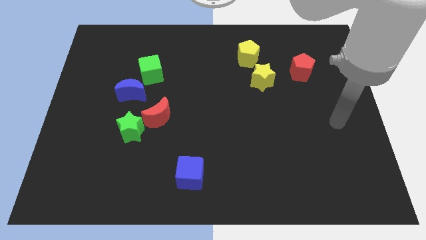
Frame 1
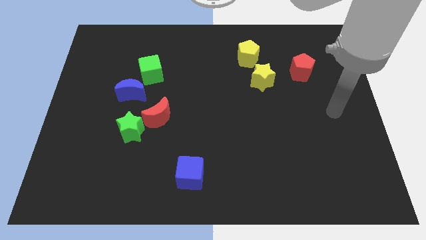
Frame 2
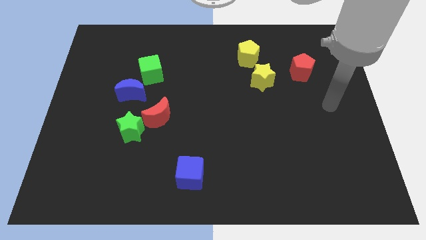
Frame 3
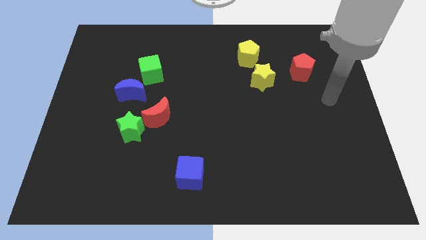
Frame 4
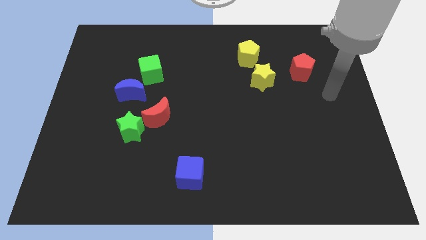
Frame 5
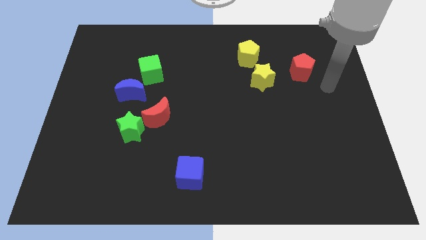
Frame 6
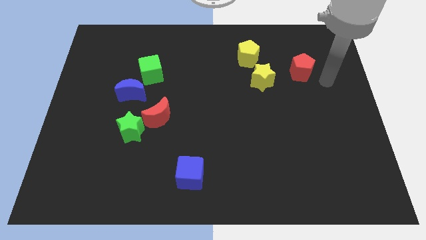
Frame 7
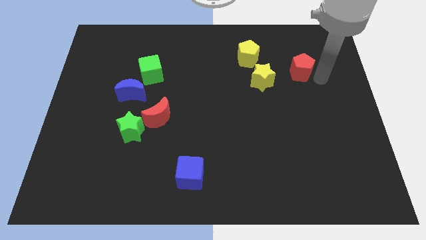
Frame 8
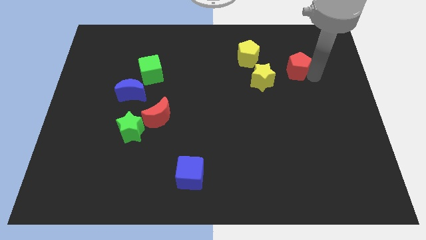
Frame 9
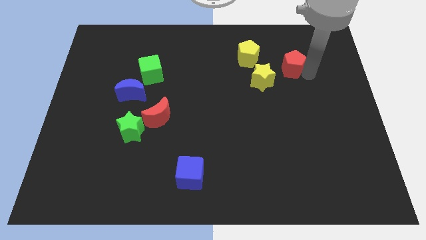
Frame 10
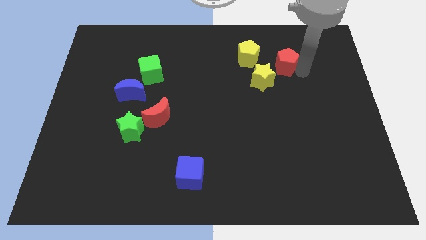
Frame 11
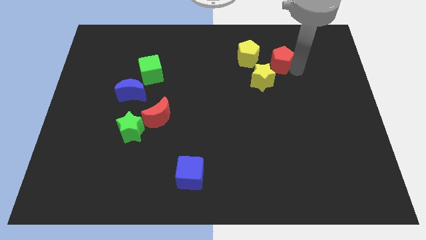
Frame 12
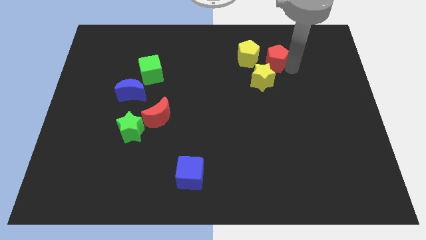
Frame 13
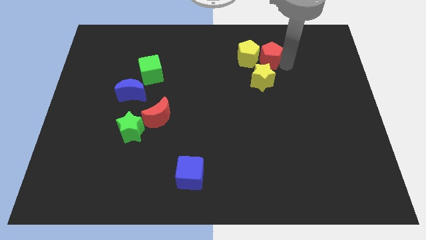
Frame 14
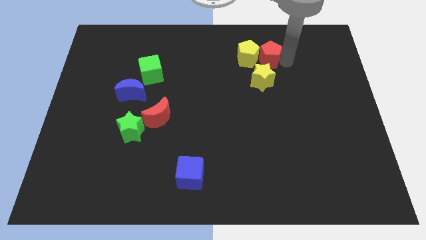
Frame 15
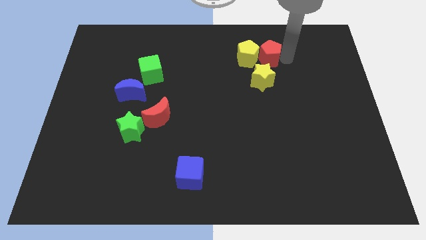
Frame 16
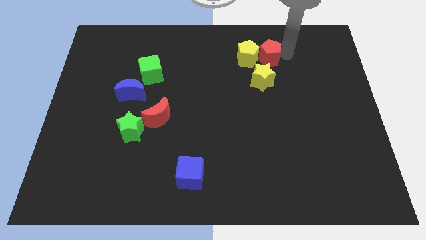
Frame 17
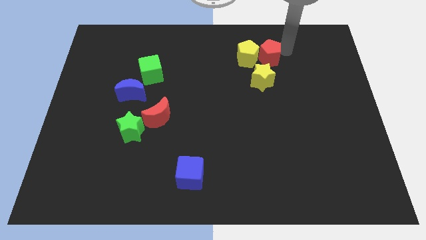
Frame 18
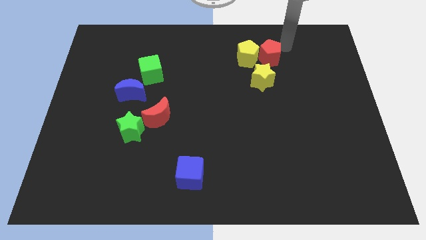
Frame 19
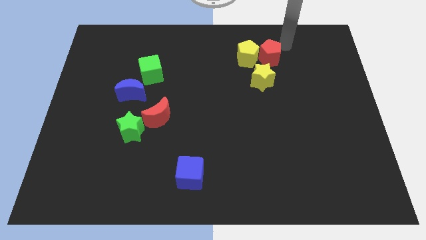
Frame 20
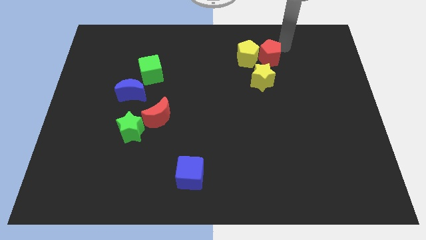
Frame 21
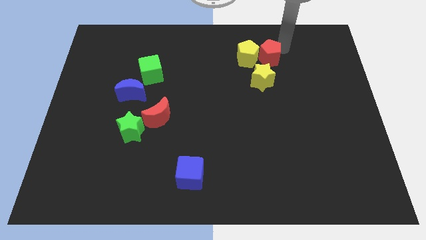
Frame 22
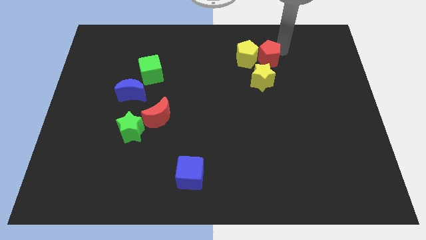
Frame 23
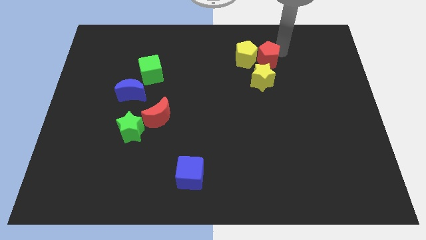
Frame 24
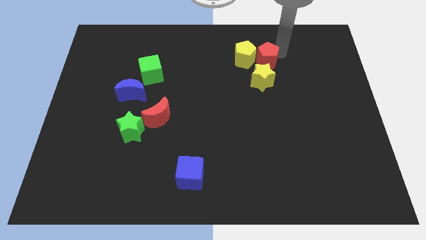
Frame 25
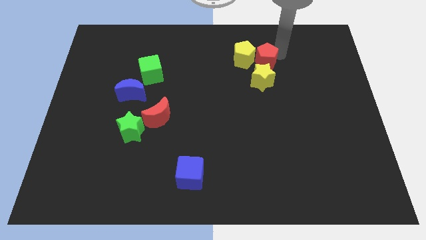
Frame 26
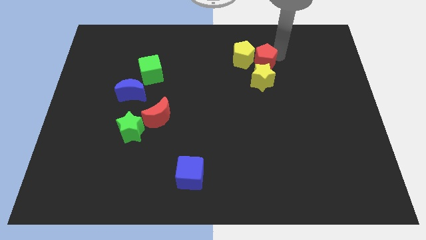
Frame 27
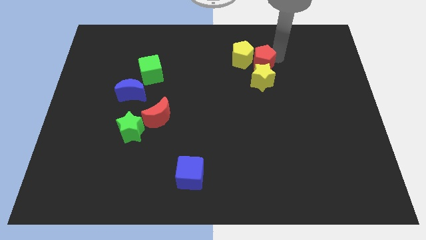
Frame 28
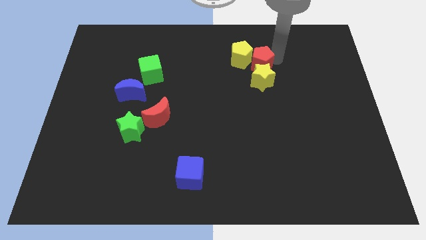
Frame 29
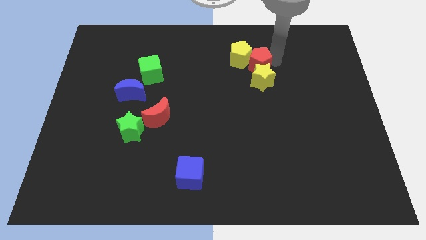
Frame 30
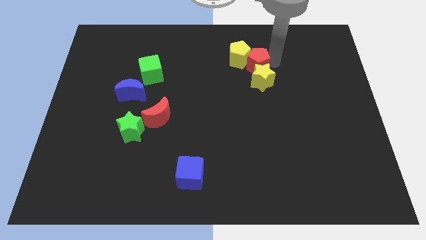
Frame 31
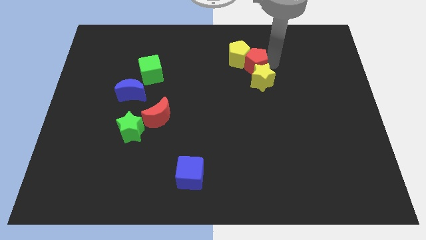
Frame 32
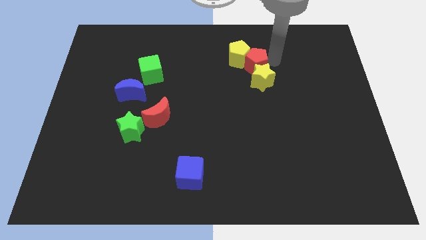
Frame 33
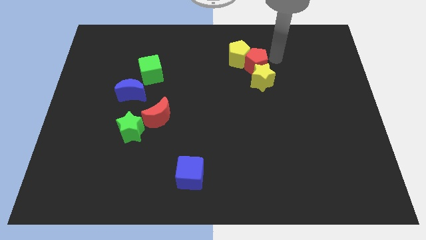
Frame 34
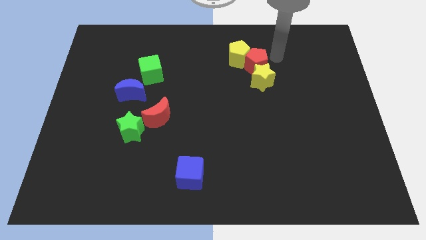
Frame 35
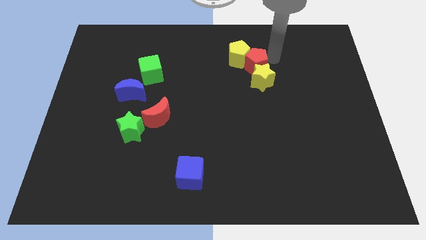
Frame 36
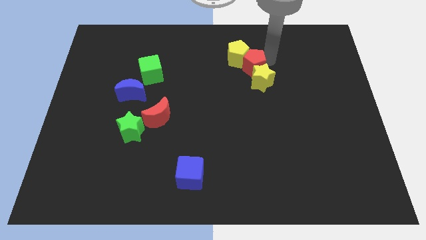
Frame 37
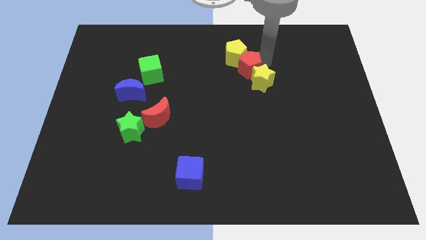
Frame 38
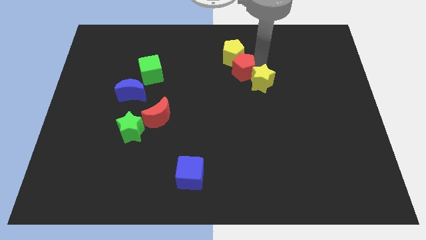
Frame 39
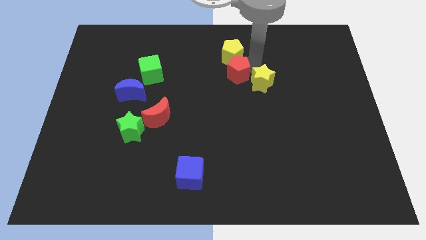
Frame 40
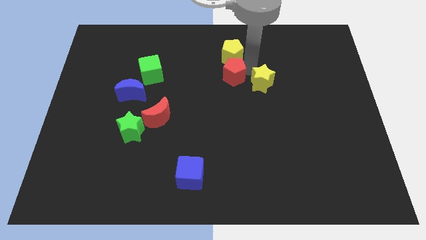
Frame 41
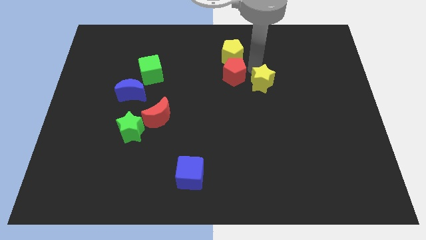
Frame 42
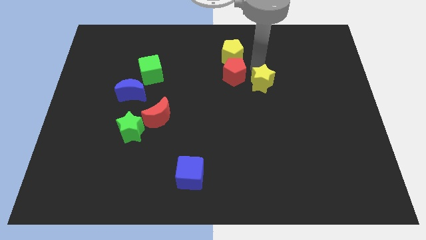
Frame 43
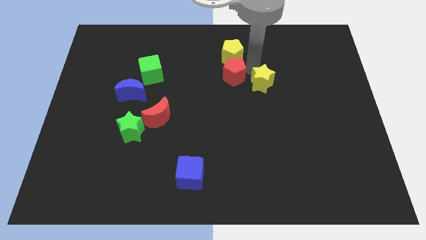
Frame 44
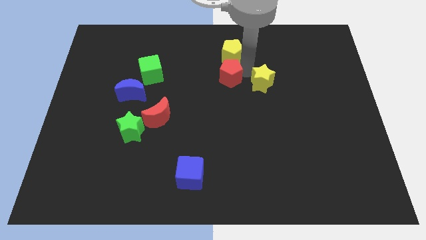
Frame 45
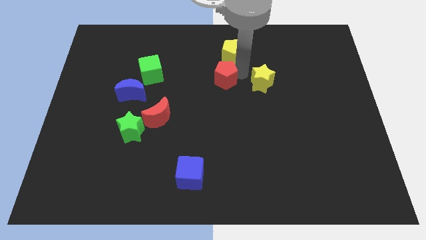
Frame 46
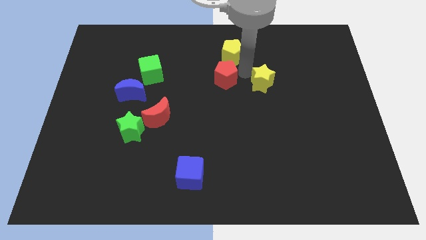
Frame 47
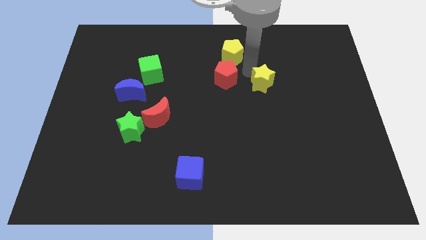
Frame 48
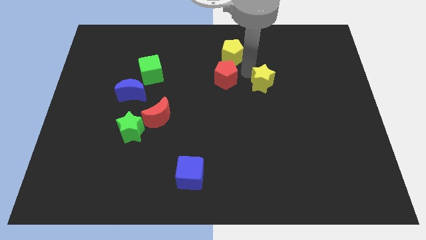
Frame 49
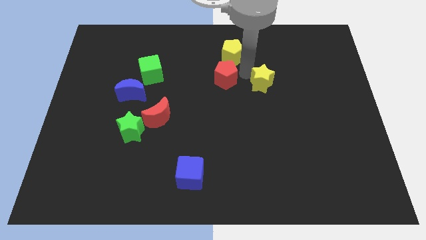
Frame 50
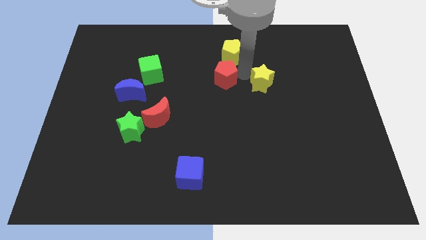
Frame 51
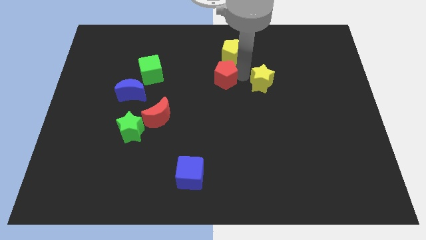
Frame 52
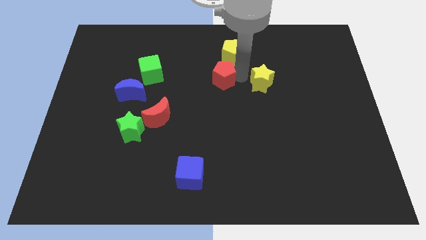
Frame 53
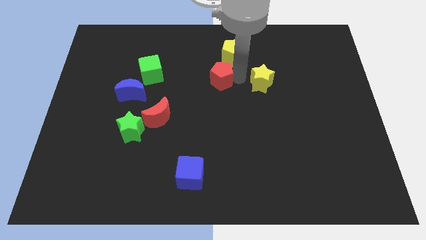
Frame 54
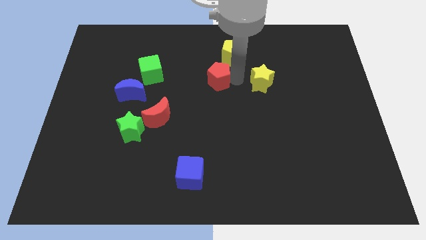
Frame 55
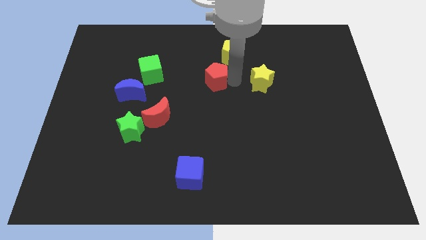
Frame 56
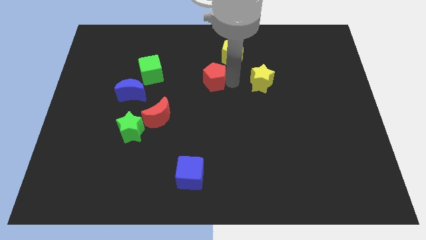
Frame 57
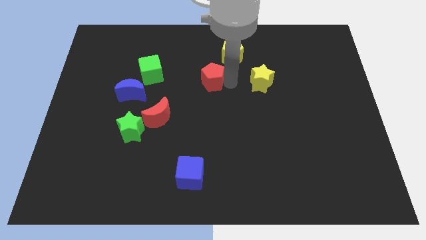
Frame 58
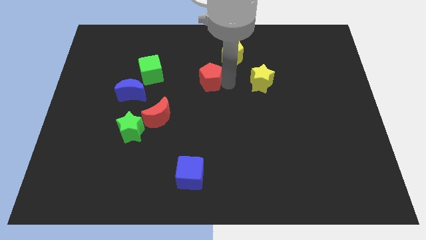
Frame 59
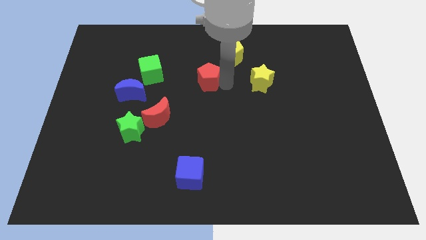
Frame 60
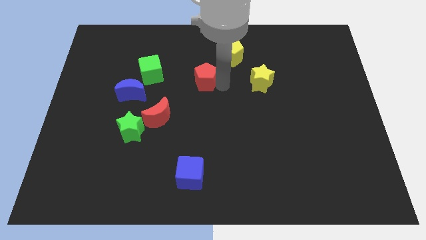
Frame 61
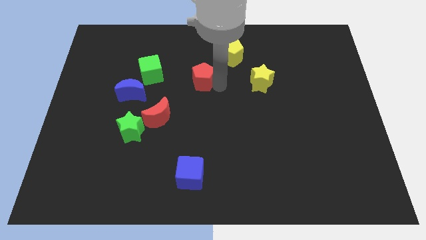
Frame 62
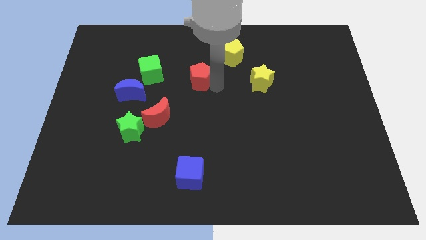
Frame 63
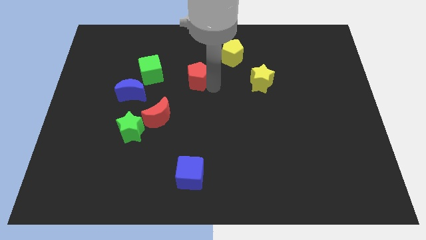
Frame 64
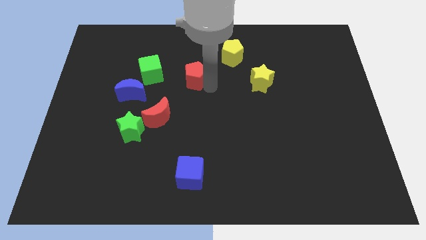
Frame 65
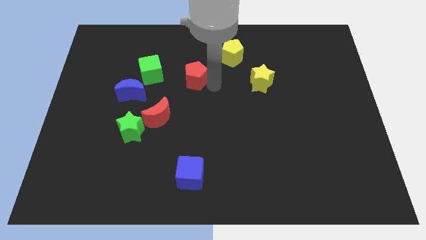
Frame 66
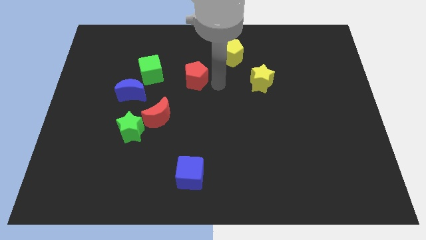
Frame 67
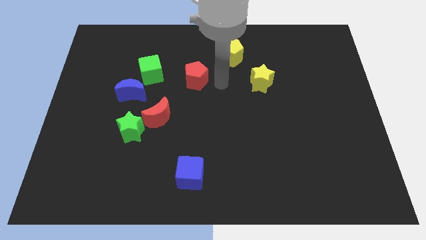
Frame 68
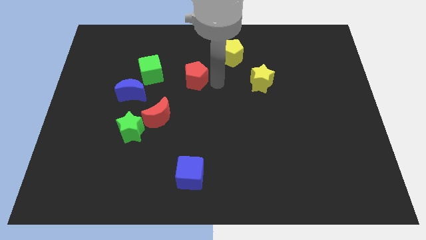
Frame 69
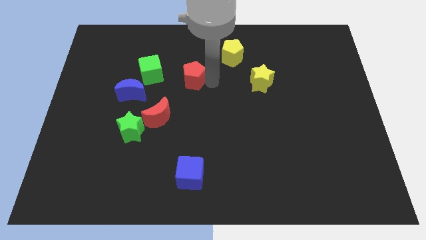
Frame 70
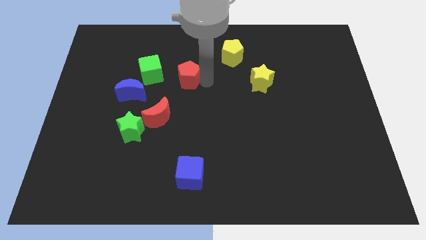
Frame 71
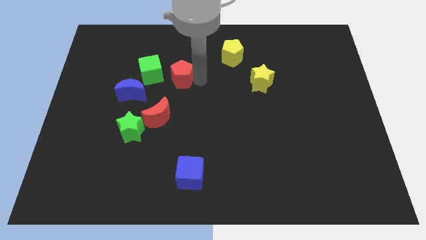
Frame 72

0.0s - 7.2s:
move the red pentagon to the top of the red moon

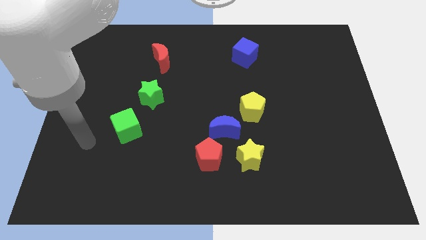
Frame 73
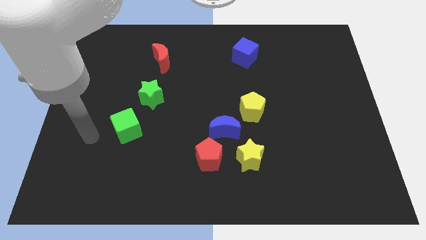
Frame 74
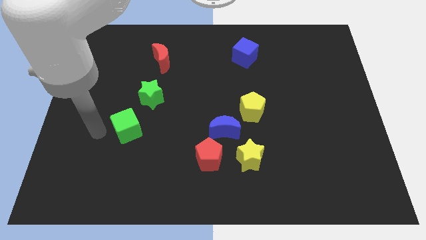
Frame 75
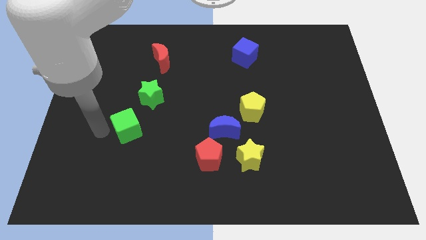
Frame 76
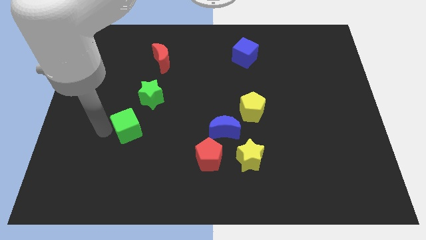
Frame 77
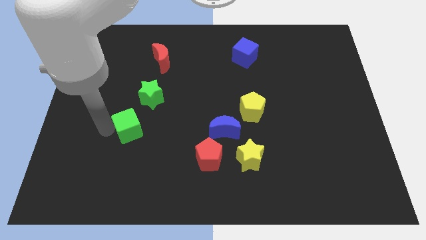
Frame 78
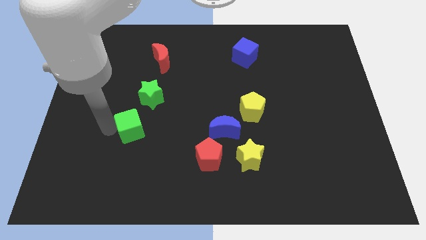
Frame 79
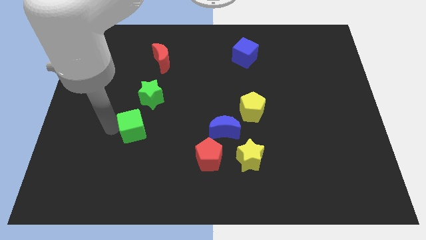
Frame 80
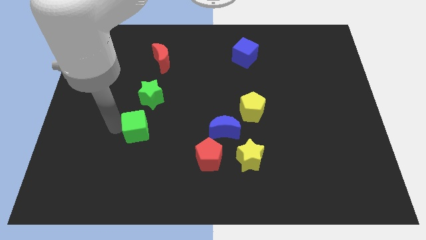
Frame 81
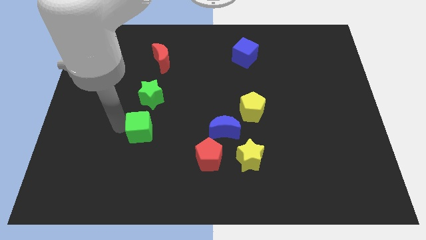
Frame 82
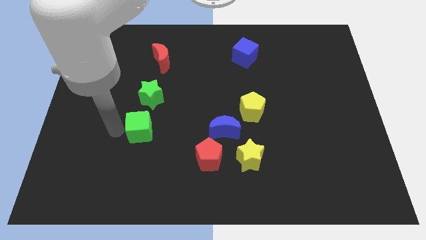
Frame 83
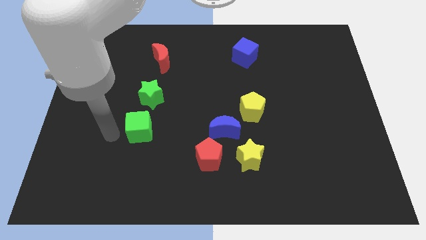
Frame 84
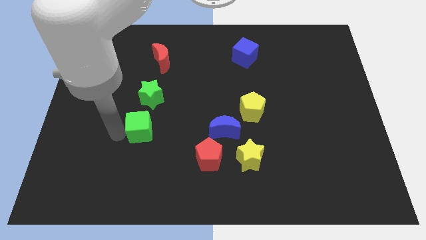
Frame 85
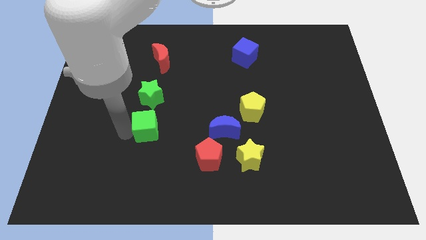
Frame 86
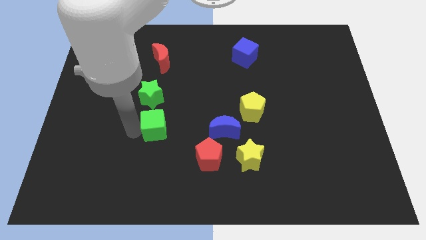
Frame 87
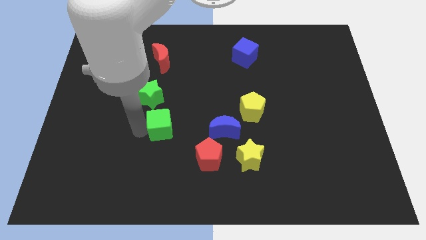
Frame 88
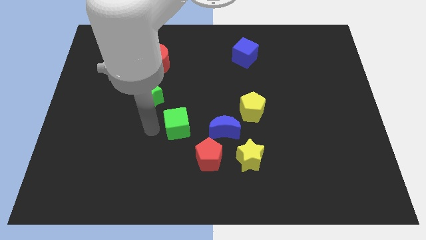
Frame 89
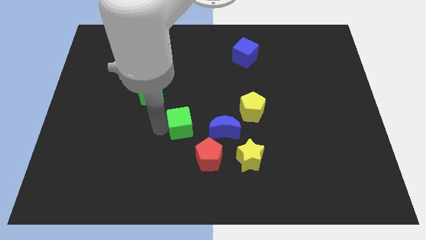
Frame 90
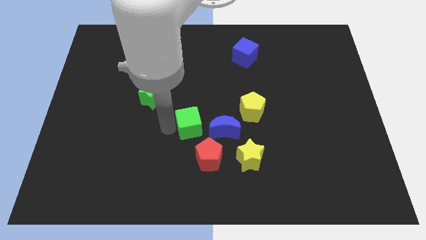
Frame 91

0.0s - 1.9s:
push the green cube above the red pentagon
